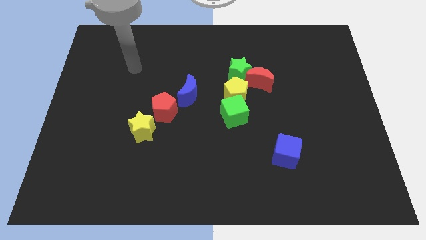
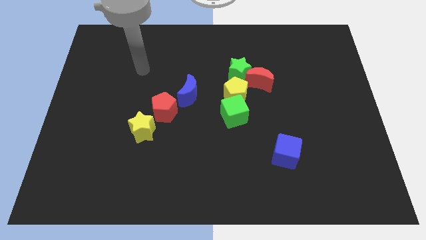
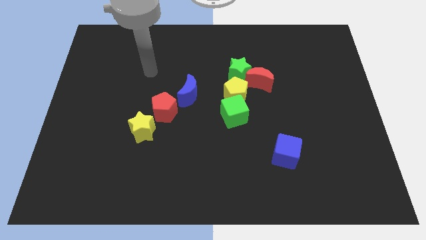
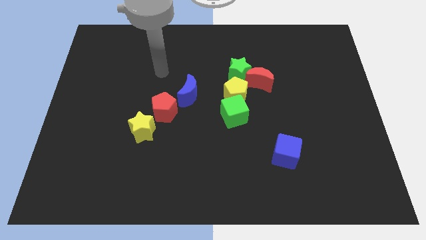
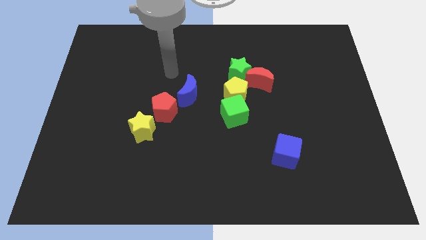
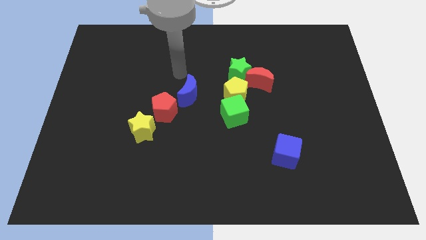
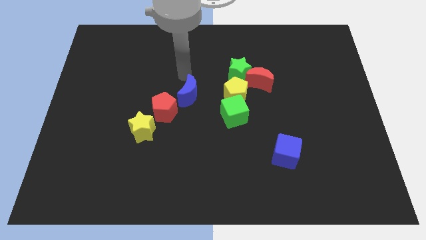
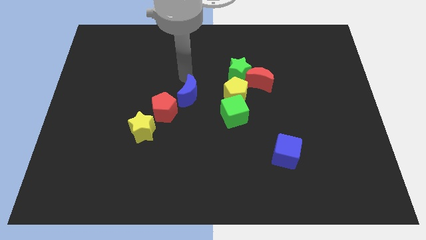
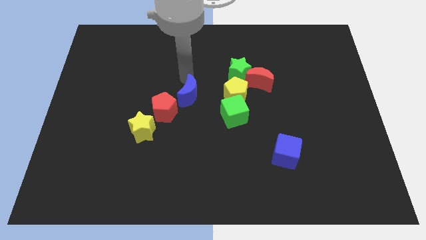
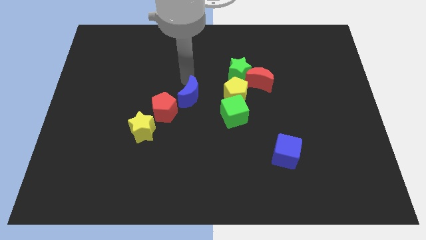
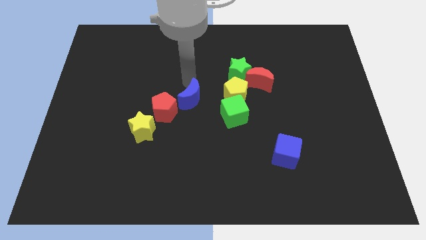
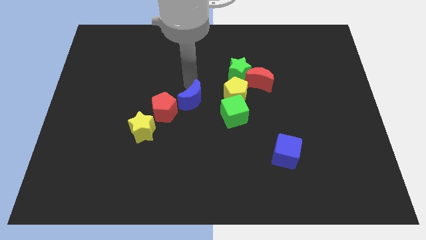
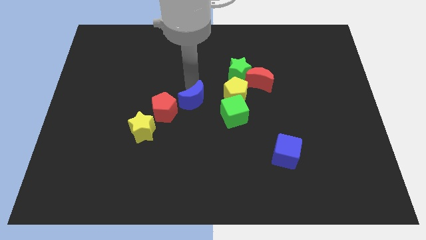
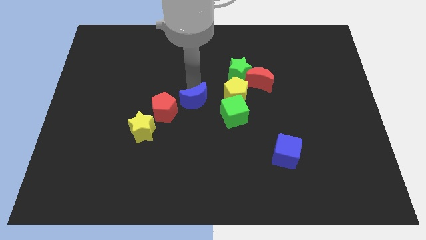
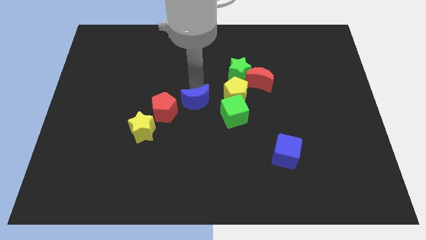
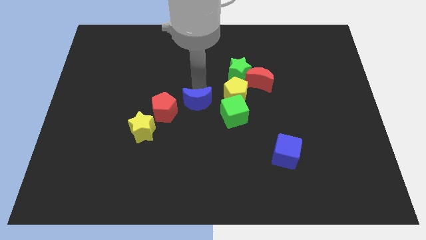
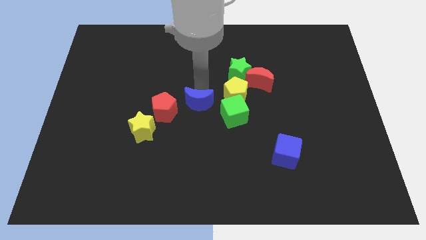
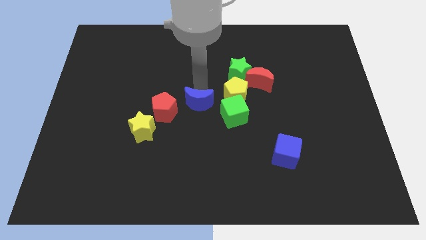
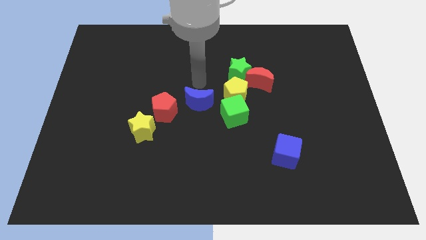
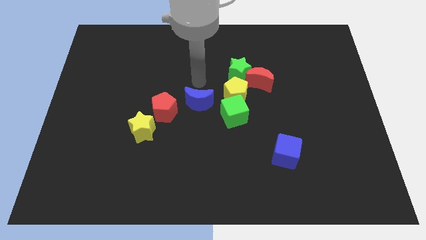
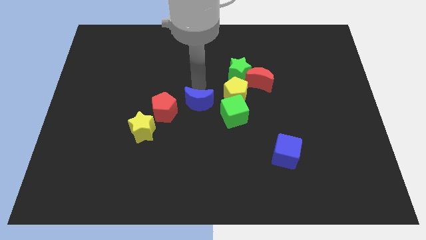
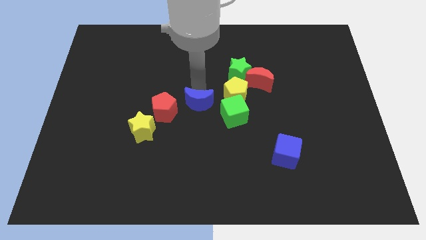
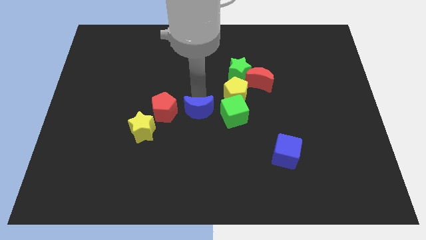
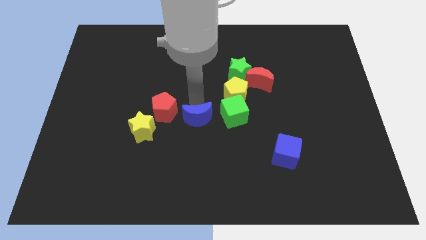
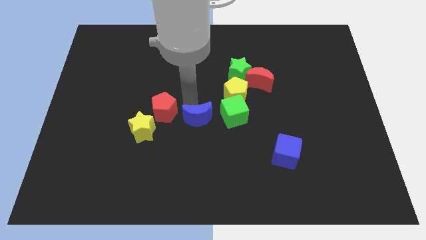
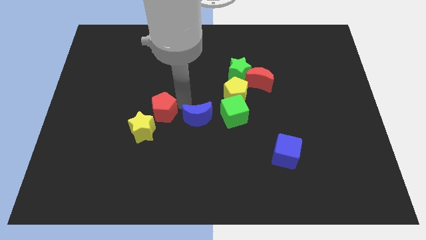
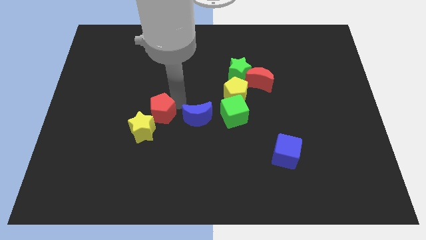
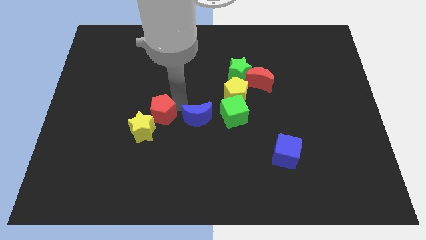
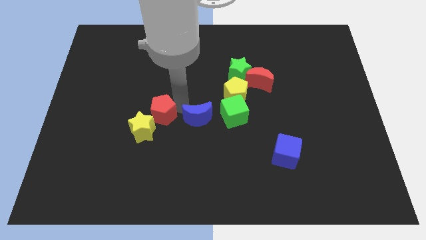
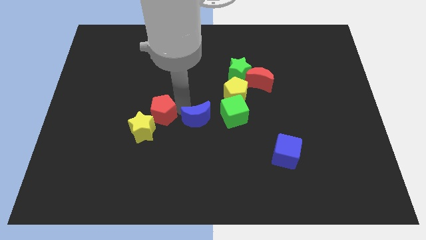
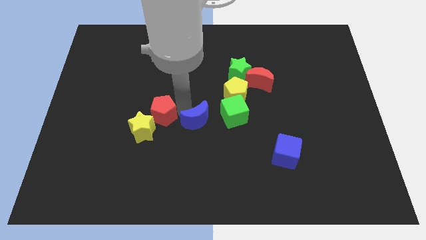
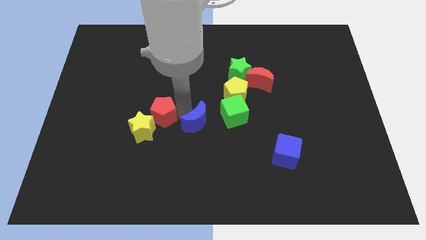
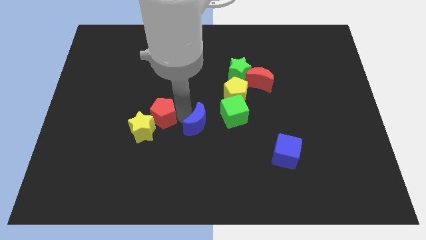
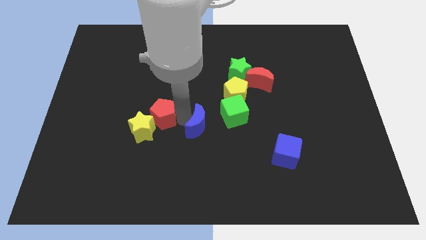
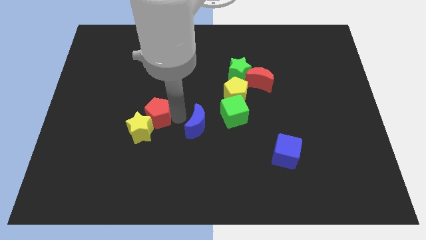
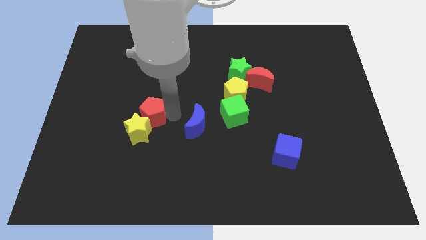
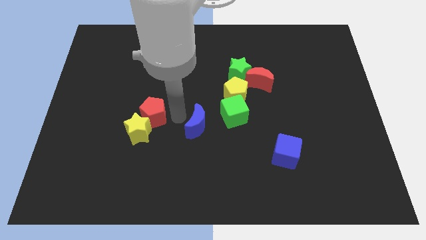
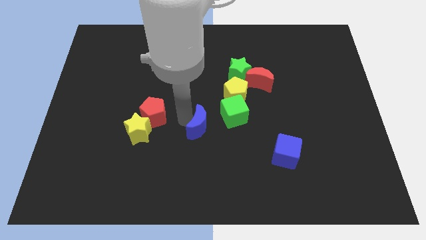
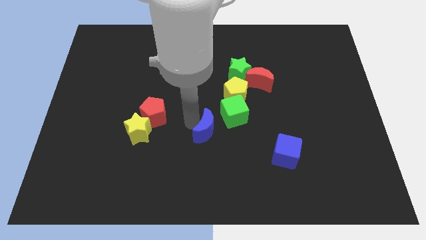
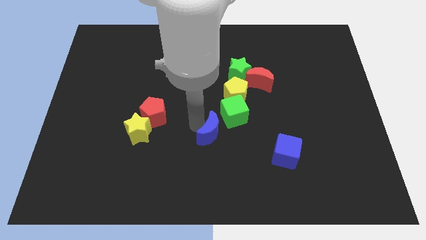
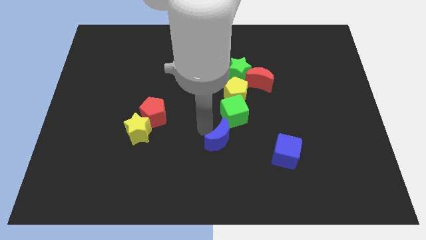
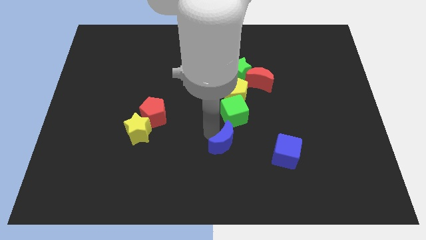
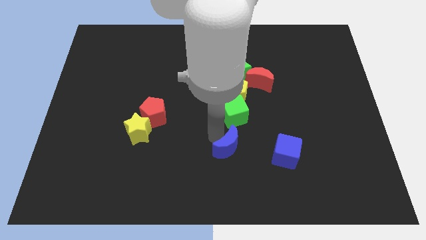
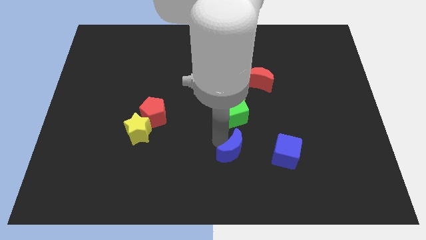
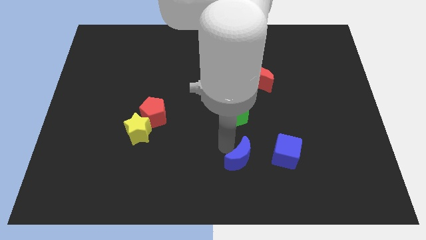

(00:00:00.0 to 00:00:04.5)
move the blue moon downwards and right

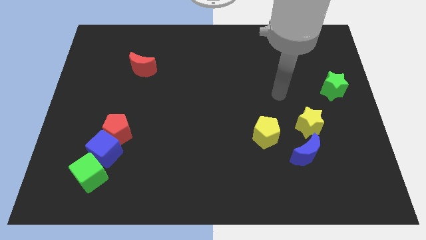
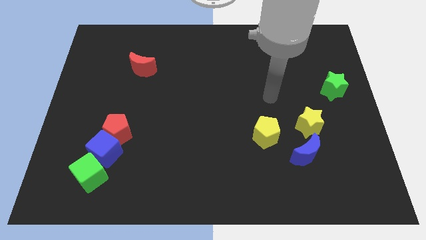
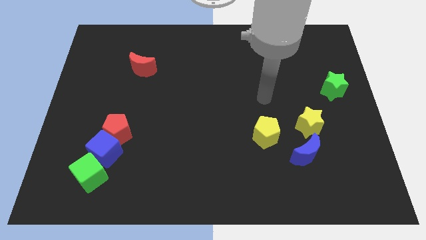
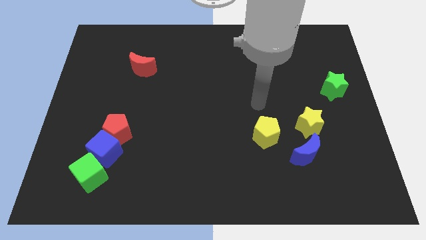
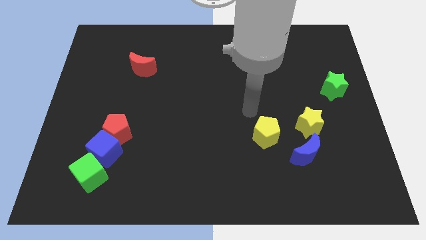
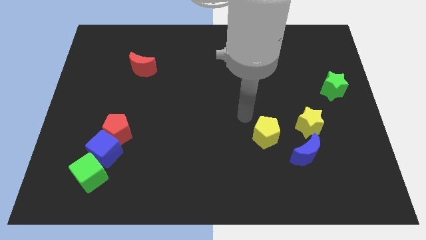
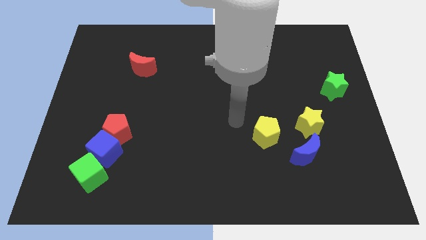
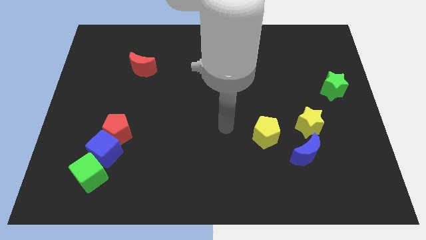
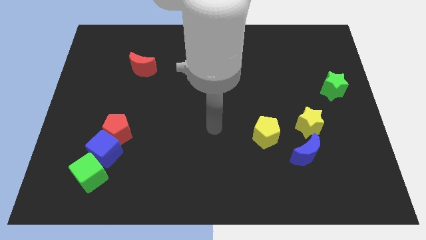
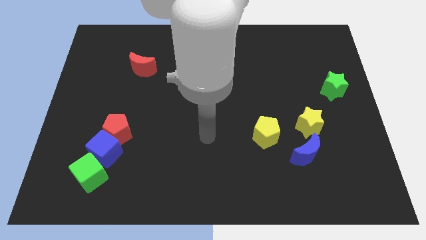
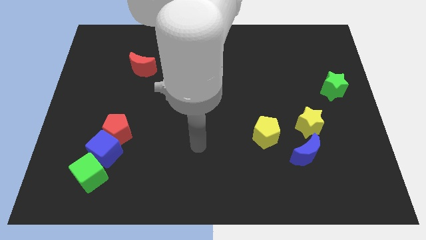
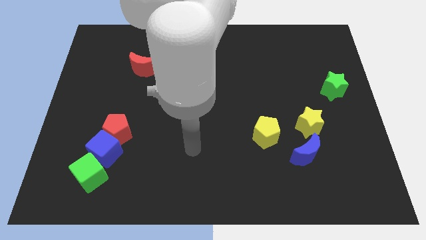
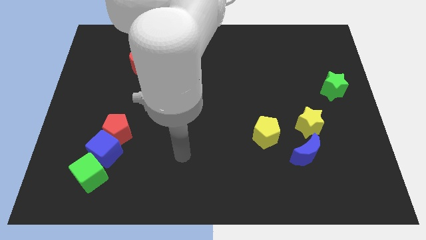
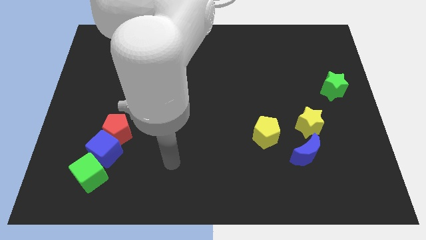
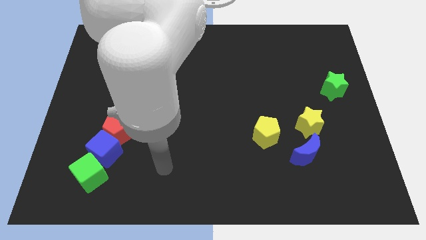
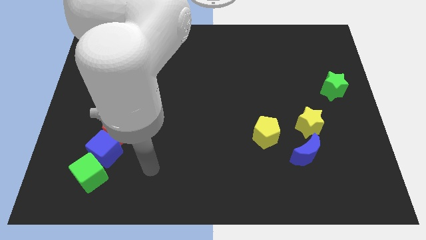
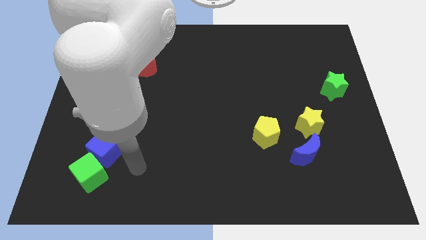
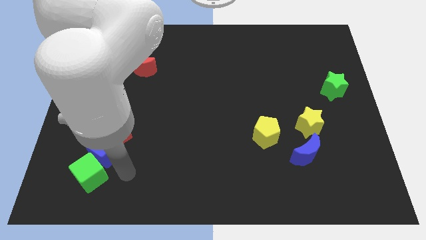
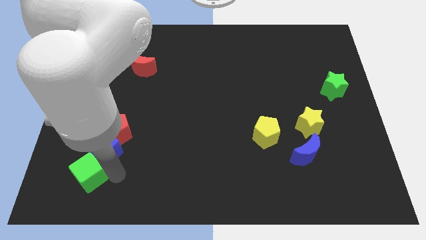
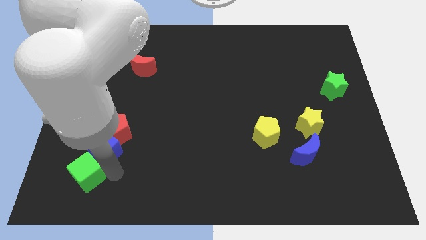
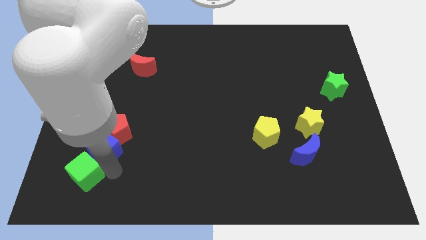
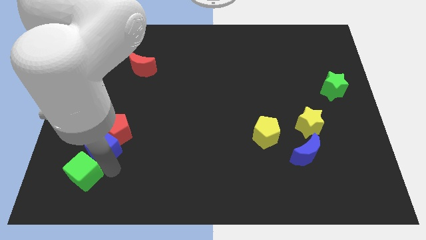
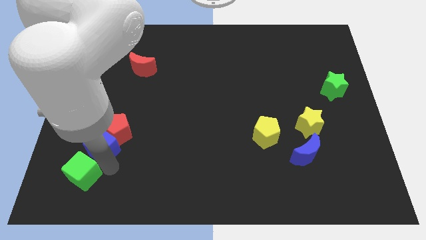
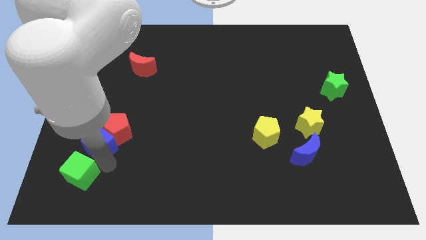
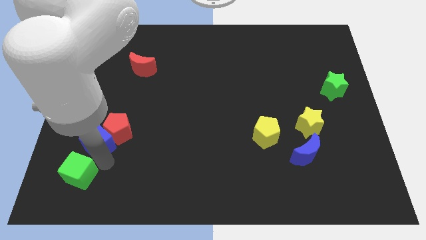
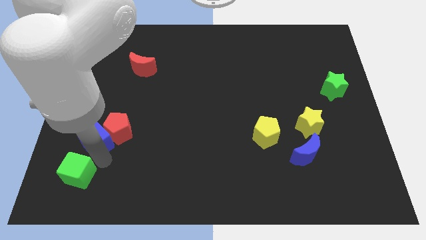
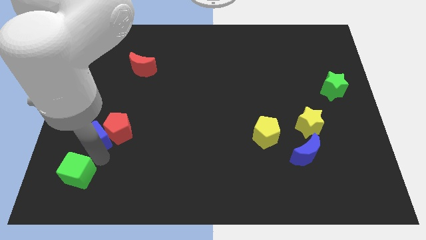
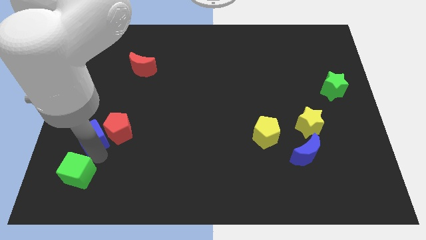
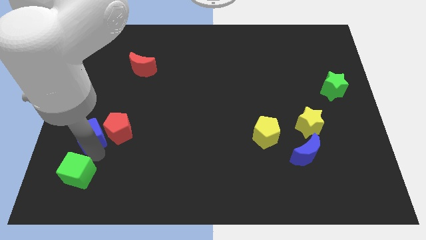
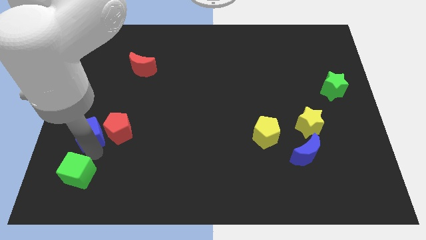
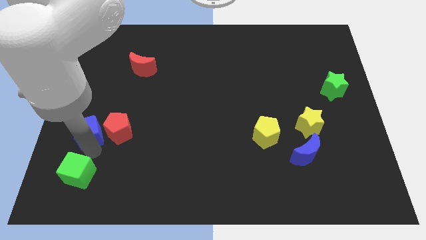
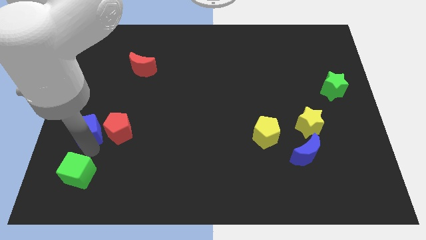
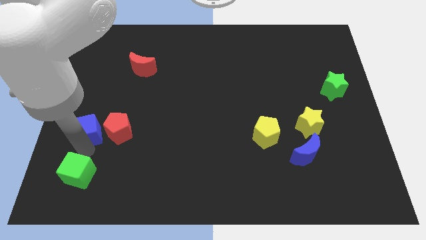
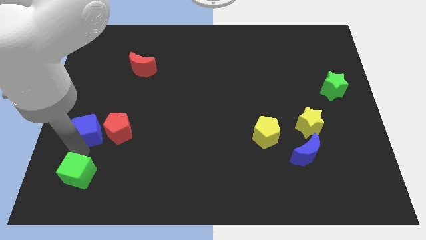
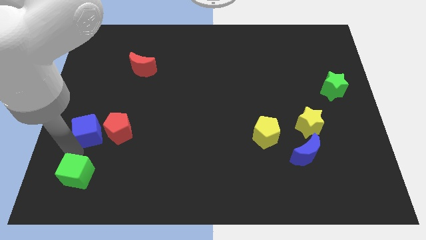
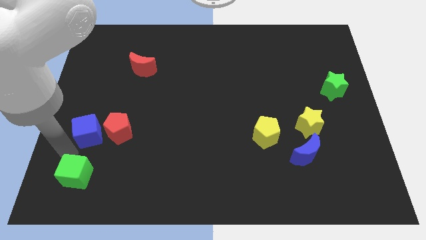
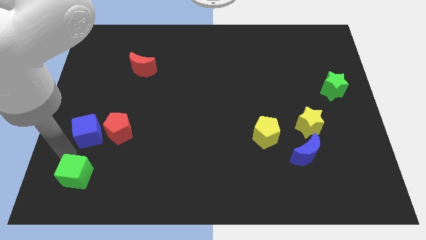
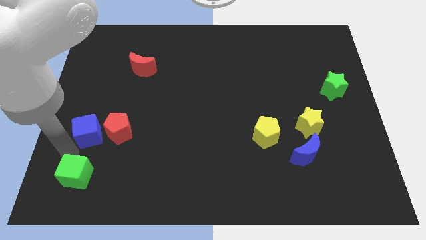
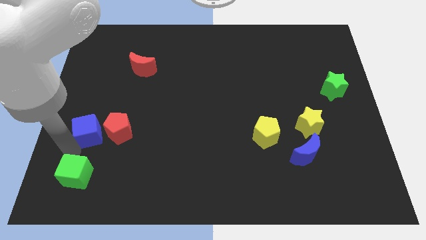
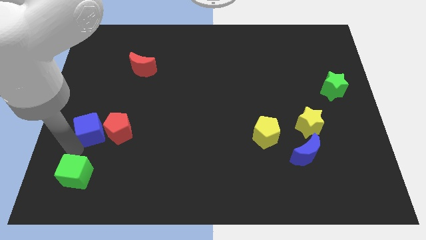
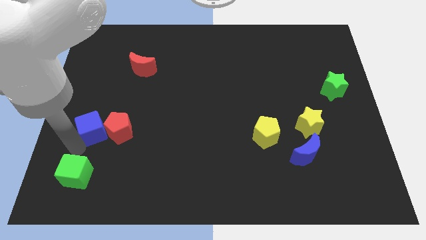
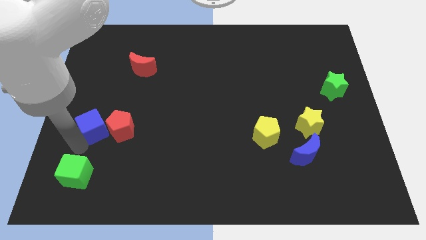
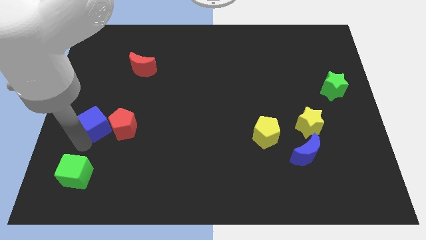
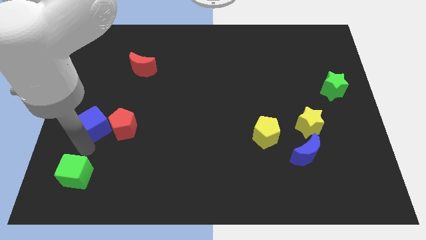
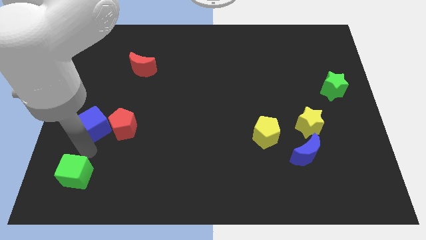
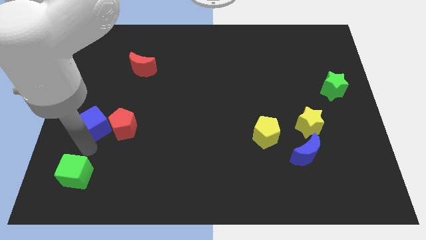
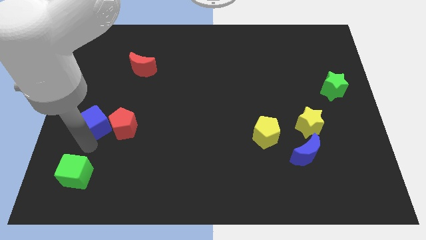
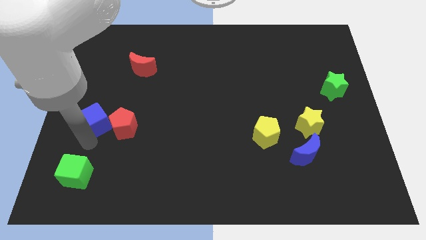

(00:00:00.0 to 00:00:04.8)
slide the blue cube upwards somewhat
